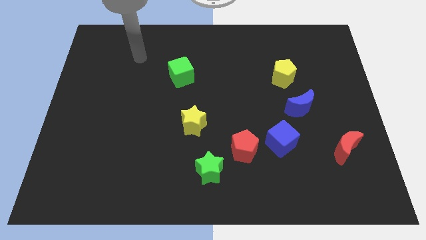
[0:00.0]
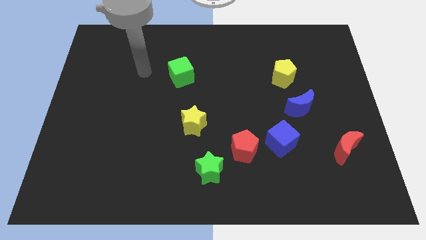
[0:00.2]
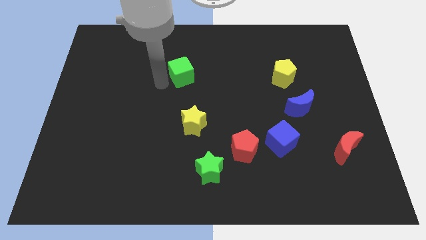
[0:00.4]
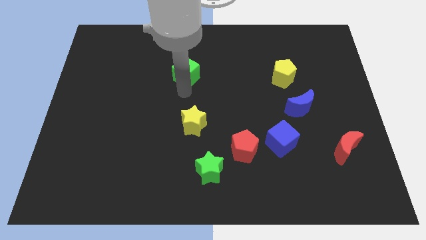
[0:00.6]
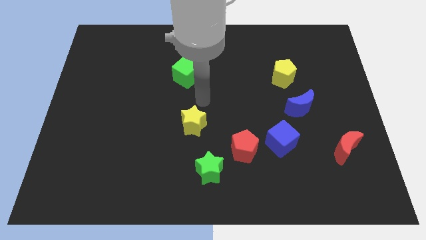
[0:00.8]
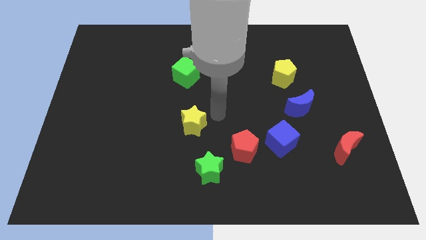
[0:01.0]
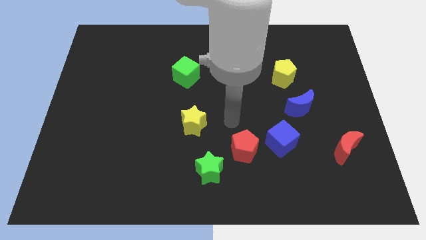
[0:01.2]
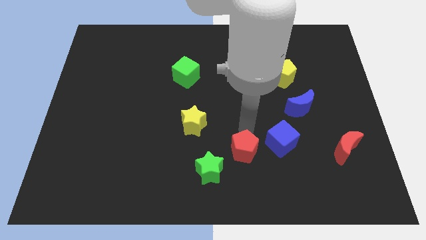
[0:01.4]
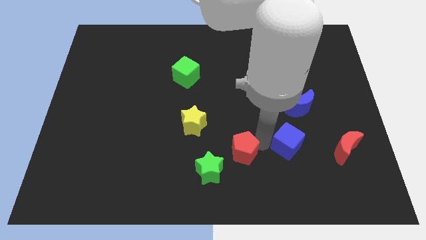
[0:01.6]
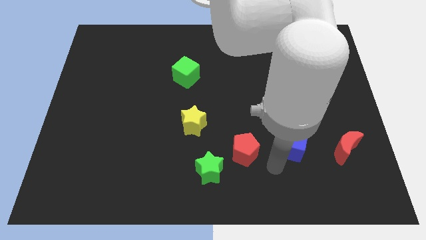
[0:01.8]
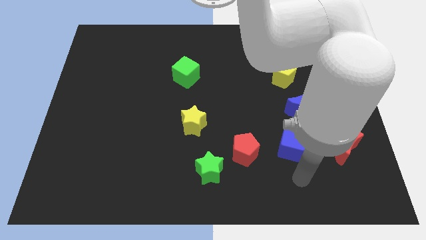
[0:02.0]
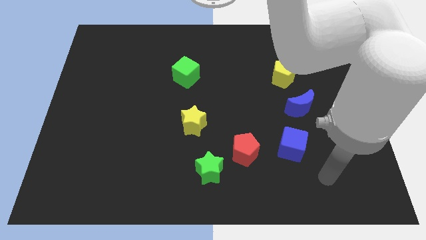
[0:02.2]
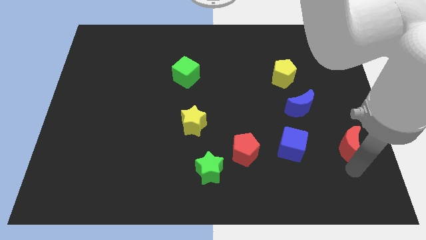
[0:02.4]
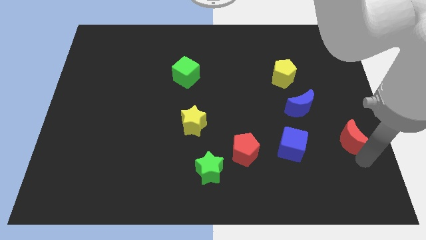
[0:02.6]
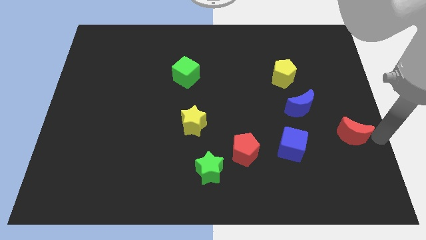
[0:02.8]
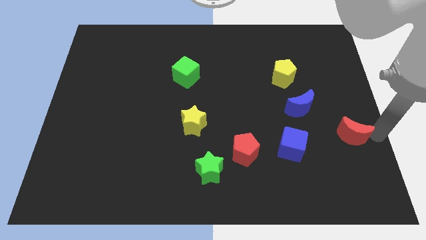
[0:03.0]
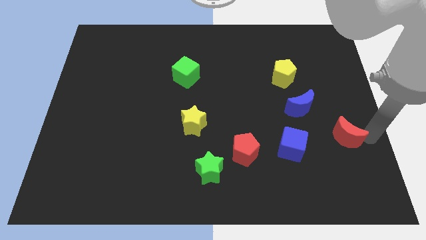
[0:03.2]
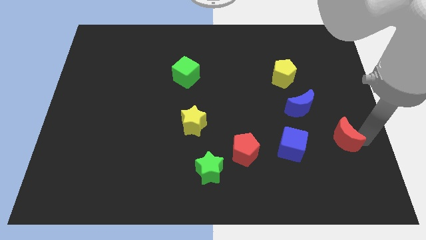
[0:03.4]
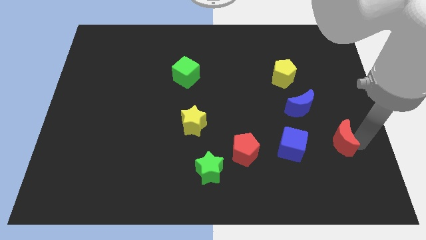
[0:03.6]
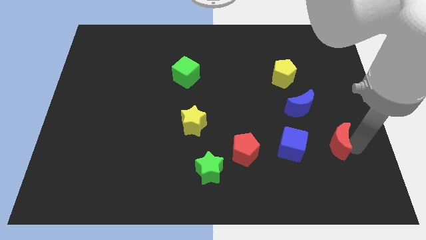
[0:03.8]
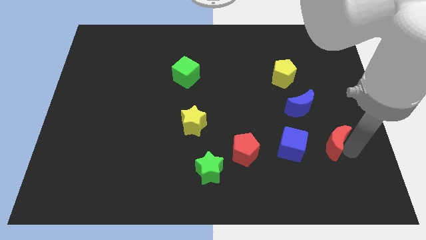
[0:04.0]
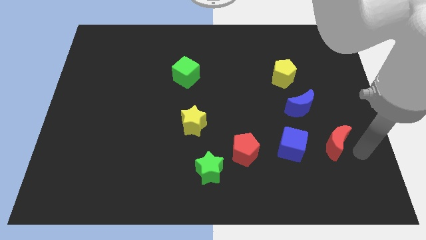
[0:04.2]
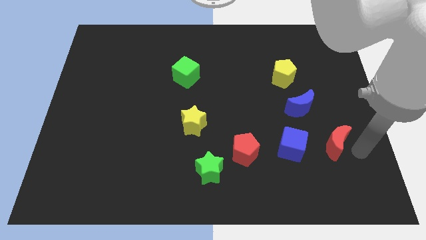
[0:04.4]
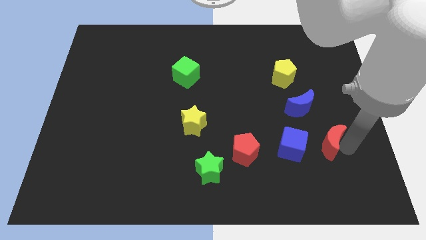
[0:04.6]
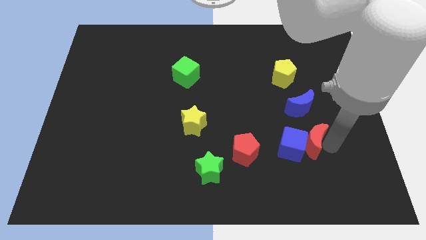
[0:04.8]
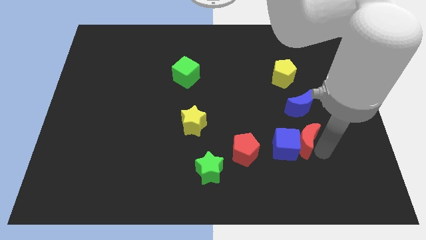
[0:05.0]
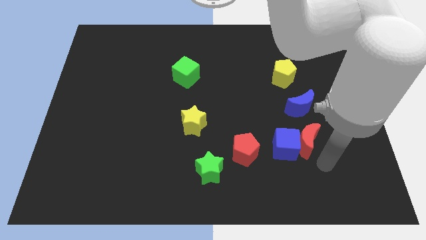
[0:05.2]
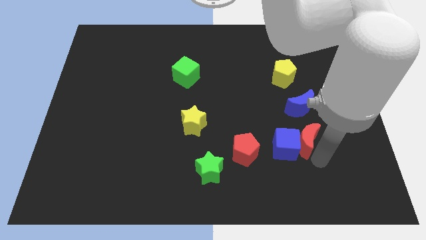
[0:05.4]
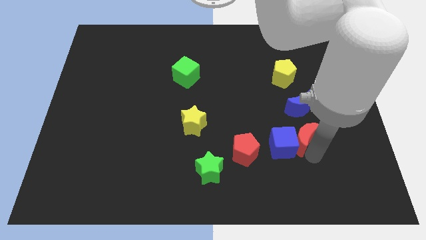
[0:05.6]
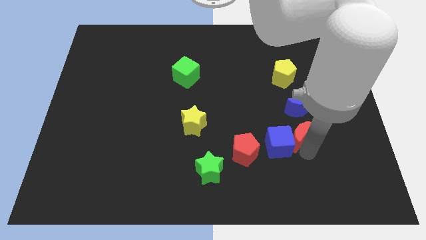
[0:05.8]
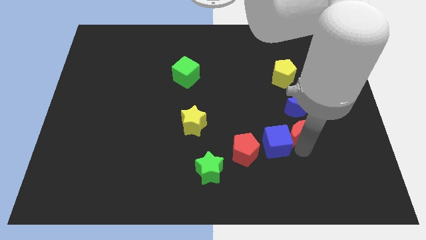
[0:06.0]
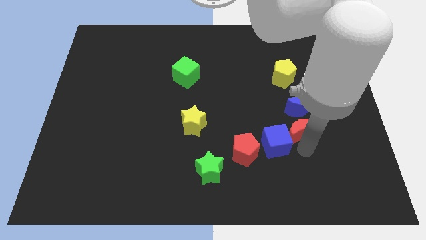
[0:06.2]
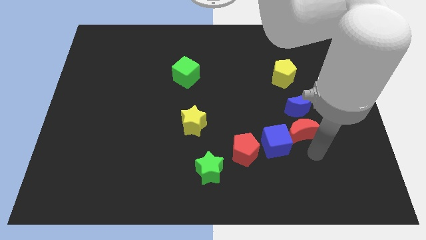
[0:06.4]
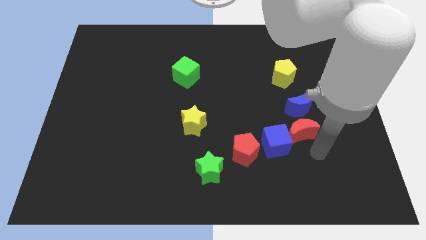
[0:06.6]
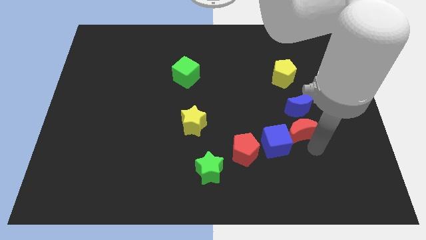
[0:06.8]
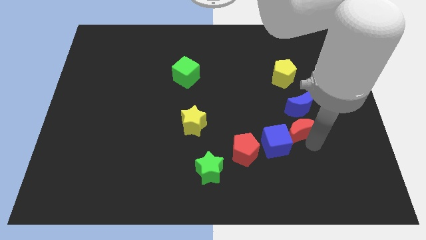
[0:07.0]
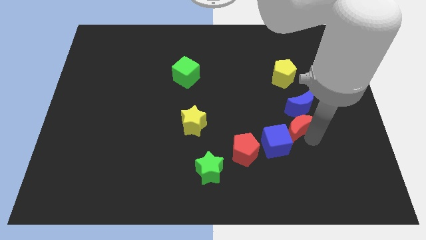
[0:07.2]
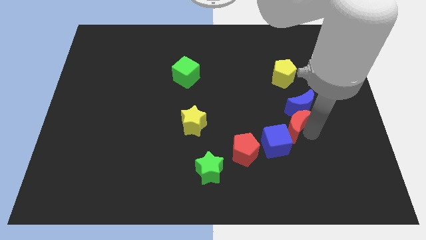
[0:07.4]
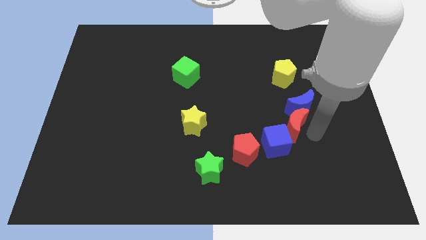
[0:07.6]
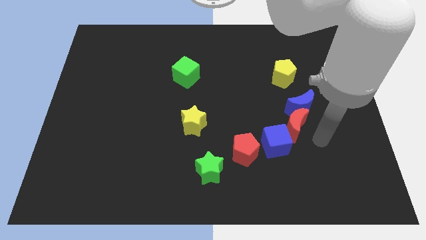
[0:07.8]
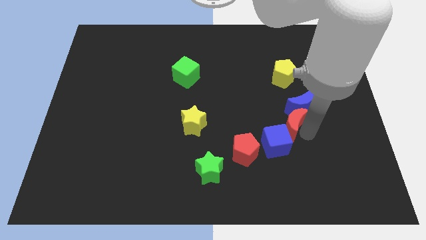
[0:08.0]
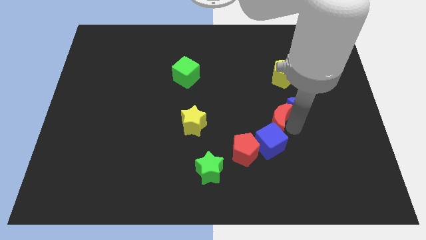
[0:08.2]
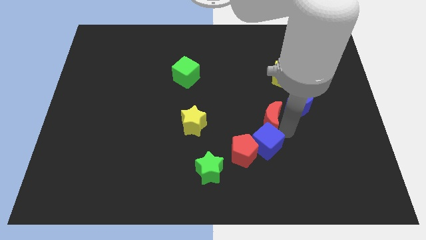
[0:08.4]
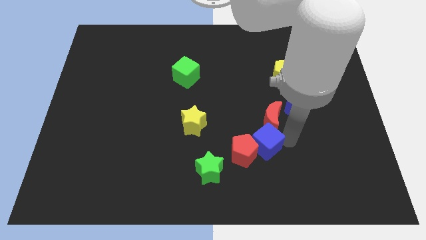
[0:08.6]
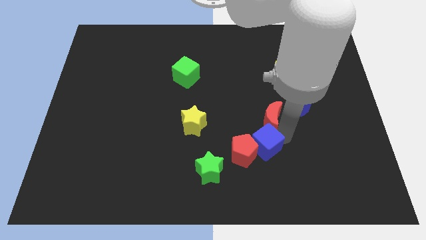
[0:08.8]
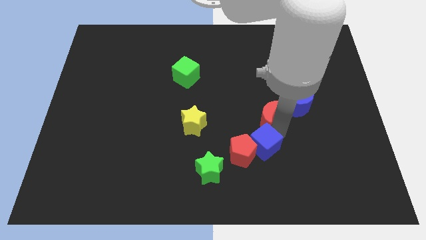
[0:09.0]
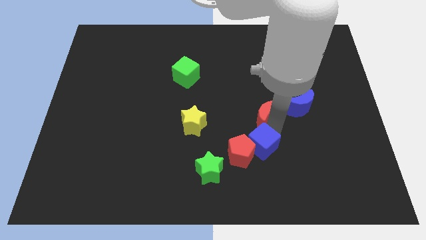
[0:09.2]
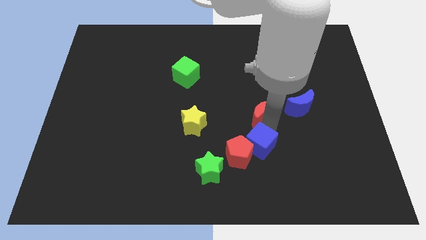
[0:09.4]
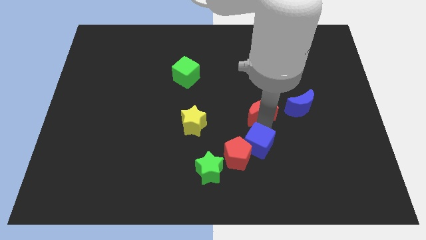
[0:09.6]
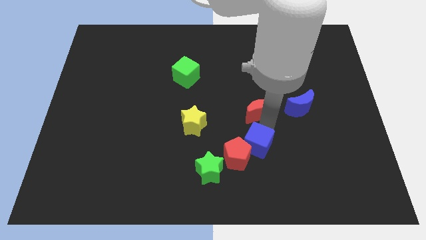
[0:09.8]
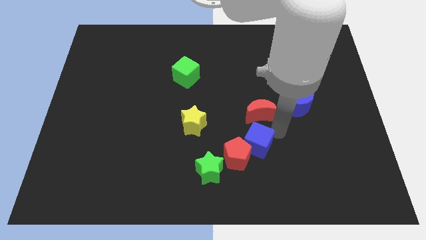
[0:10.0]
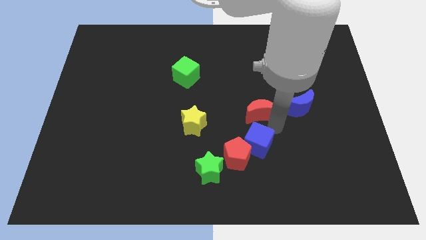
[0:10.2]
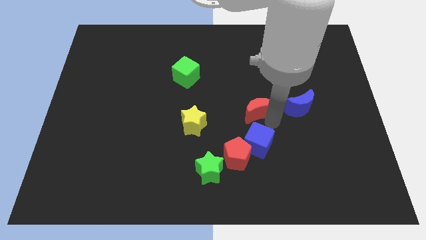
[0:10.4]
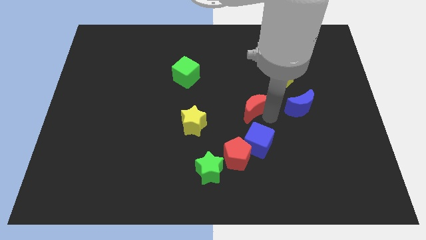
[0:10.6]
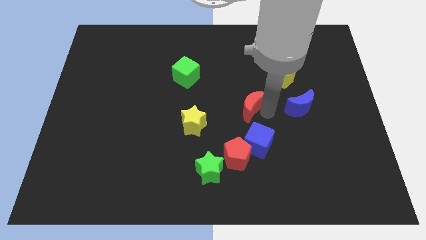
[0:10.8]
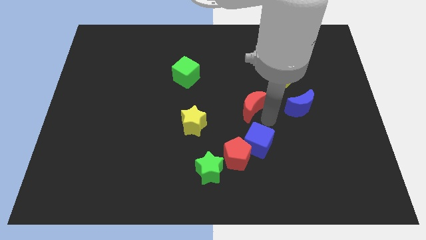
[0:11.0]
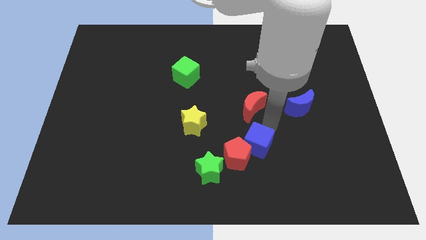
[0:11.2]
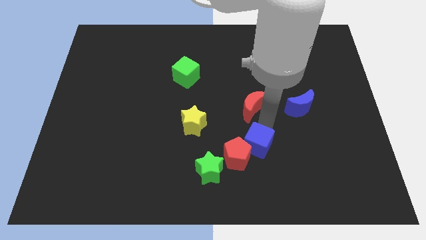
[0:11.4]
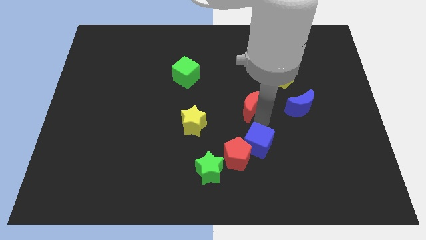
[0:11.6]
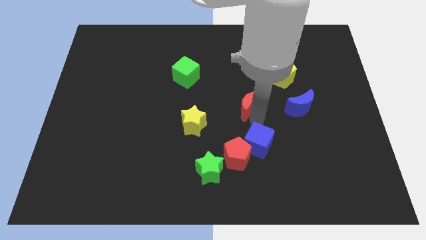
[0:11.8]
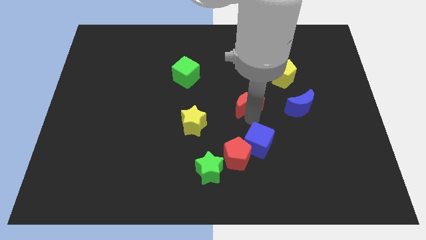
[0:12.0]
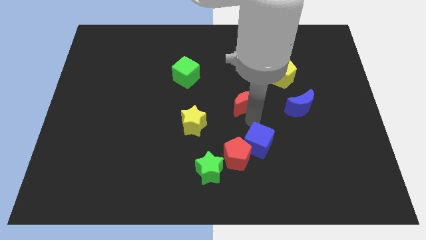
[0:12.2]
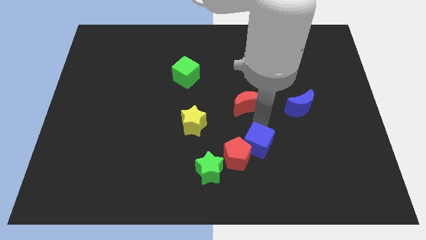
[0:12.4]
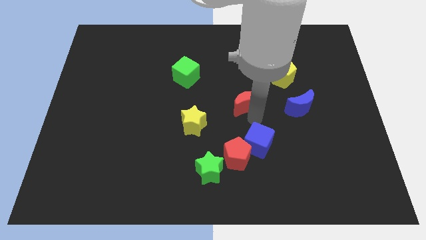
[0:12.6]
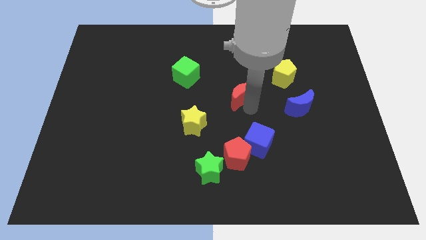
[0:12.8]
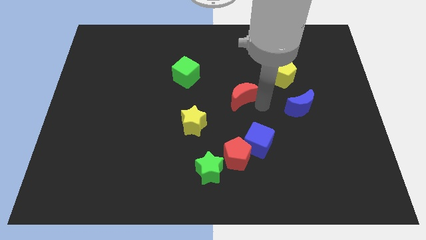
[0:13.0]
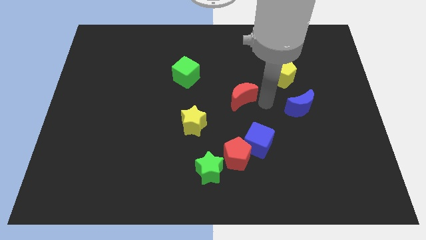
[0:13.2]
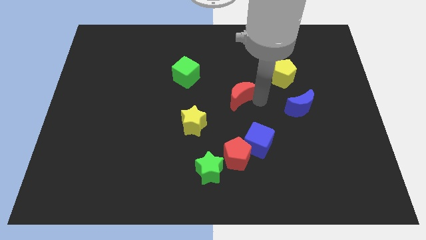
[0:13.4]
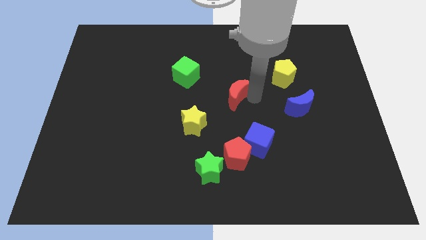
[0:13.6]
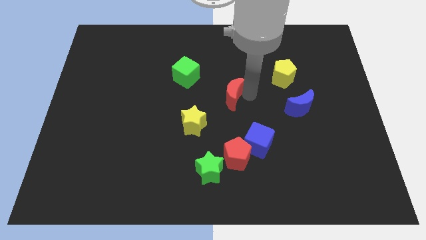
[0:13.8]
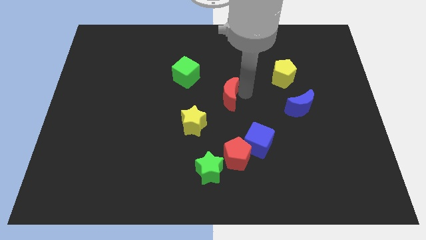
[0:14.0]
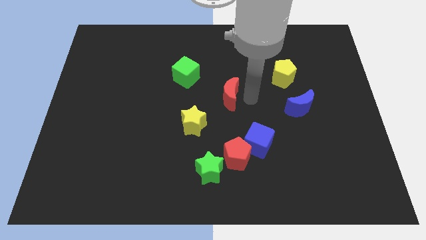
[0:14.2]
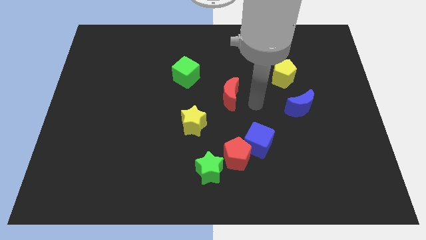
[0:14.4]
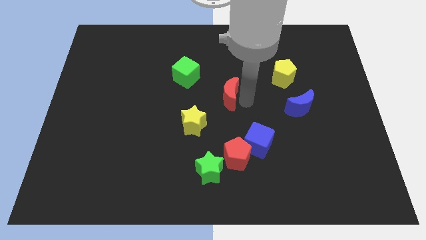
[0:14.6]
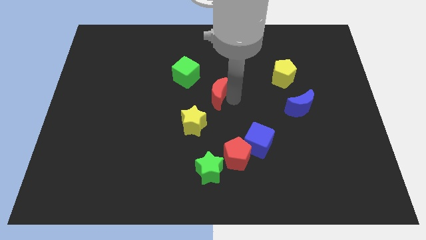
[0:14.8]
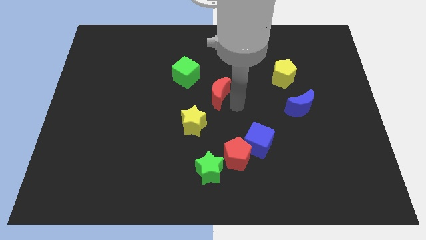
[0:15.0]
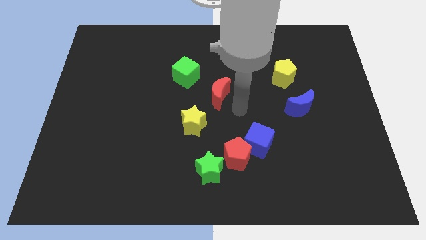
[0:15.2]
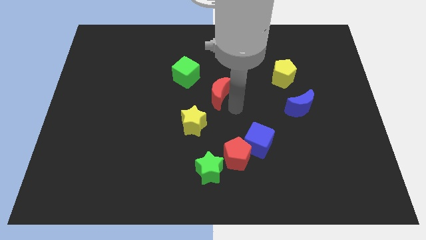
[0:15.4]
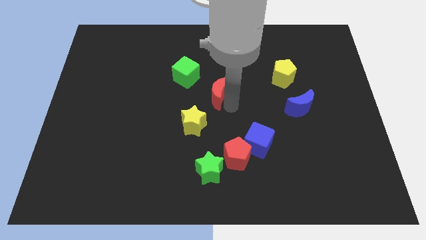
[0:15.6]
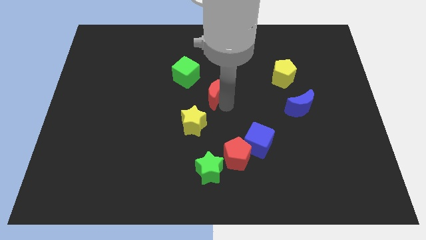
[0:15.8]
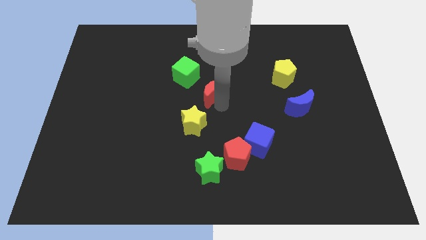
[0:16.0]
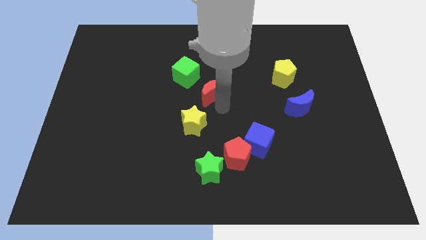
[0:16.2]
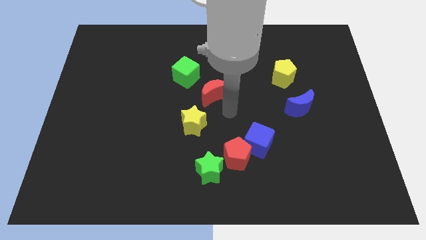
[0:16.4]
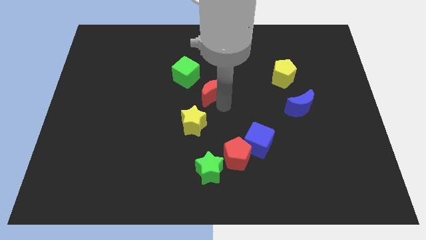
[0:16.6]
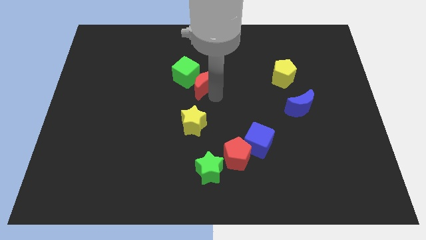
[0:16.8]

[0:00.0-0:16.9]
move the red moon towards the green cube
